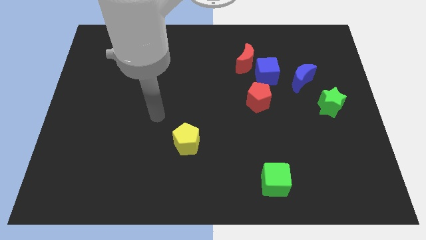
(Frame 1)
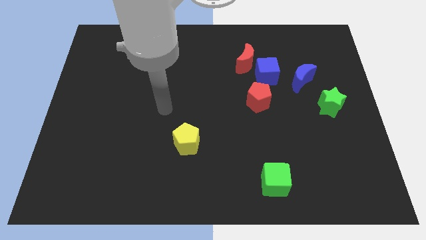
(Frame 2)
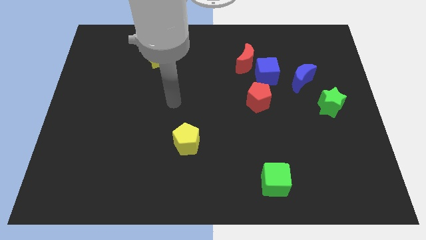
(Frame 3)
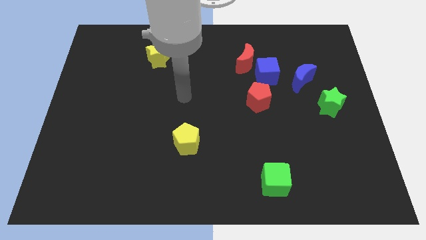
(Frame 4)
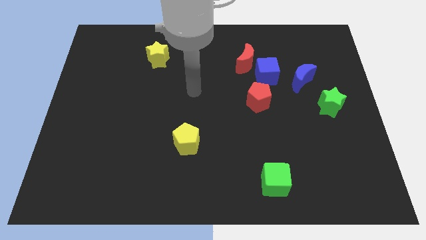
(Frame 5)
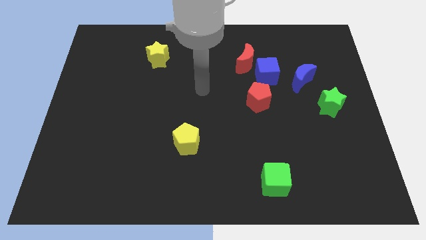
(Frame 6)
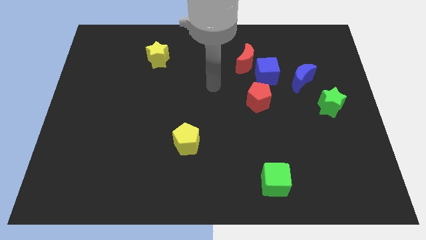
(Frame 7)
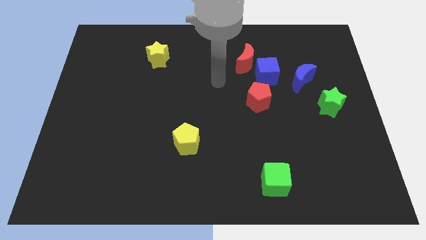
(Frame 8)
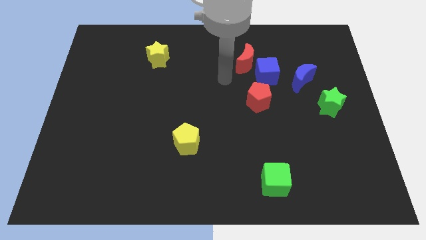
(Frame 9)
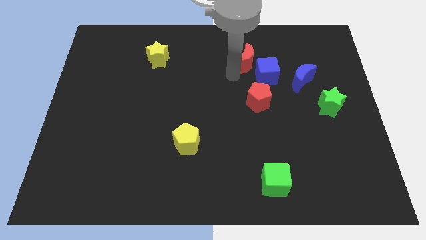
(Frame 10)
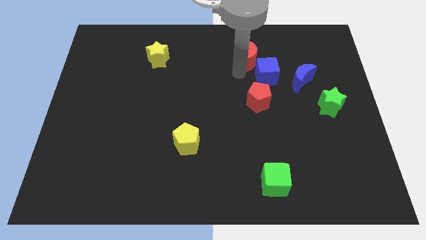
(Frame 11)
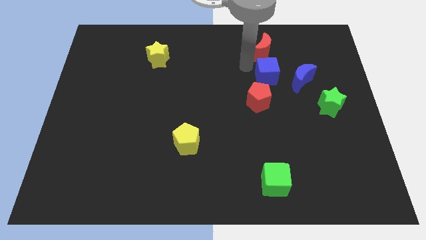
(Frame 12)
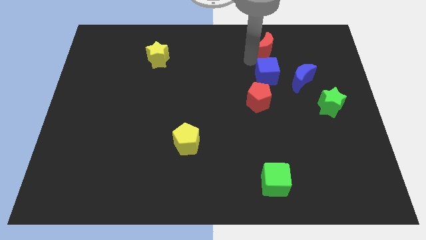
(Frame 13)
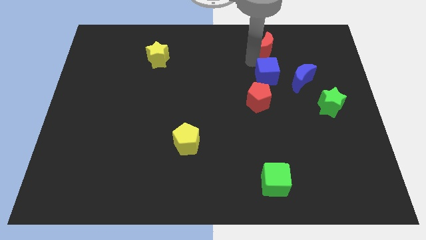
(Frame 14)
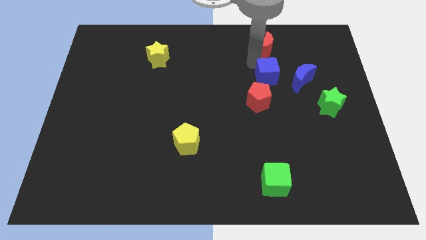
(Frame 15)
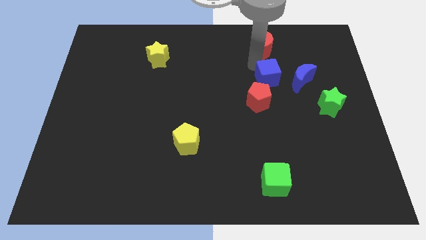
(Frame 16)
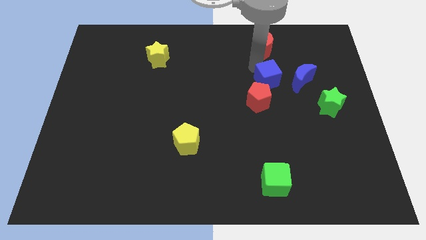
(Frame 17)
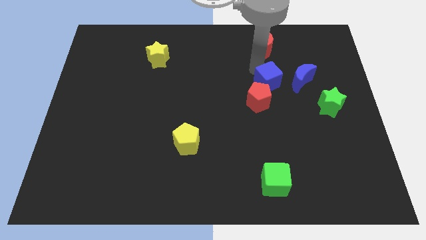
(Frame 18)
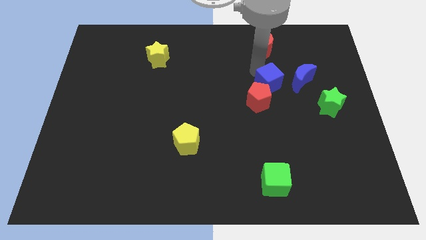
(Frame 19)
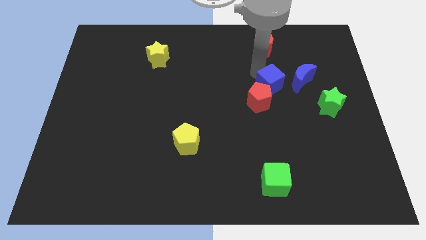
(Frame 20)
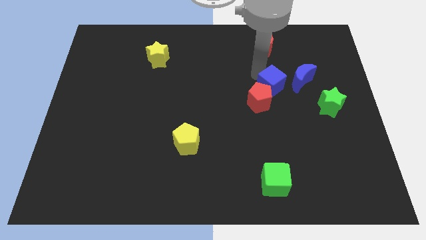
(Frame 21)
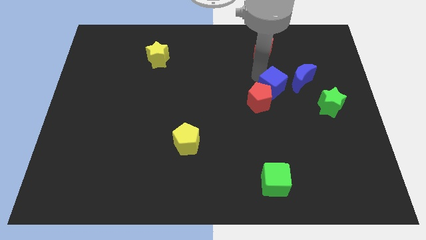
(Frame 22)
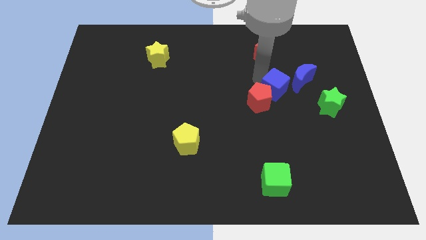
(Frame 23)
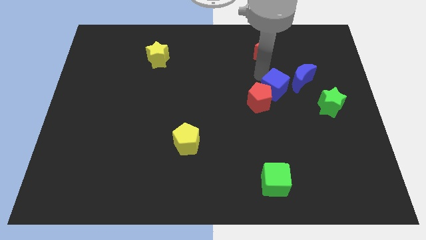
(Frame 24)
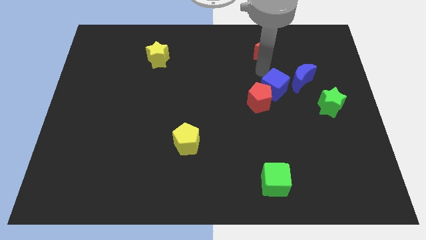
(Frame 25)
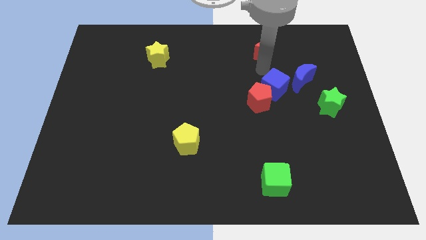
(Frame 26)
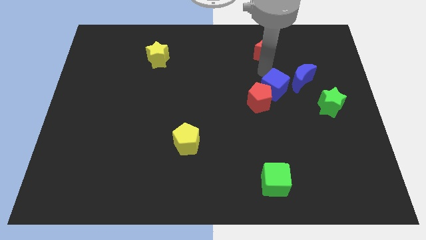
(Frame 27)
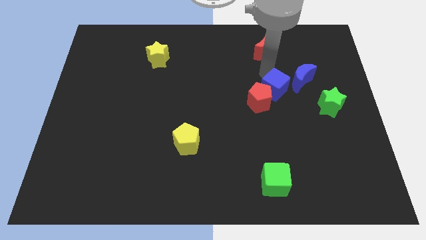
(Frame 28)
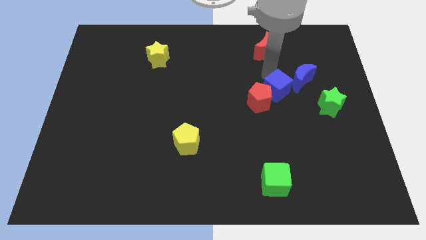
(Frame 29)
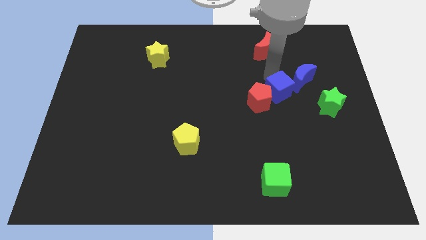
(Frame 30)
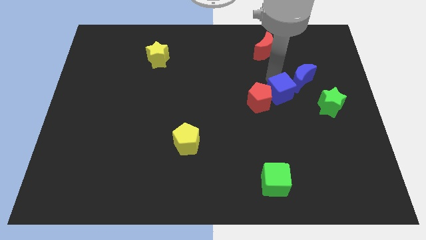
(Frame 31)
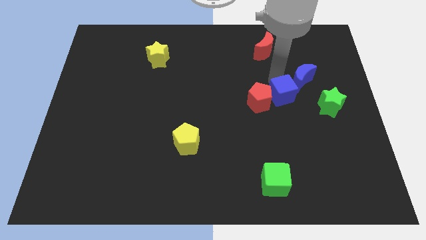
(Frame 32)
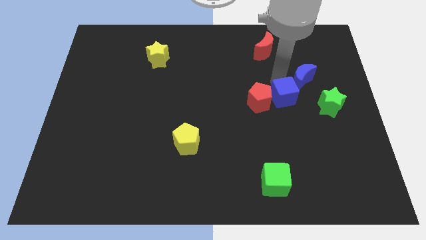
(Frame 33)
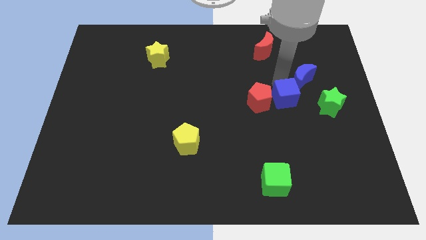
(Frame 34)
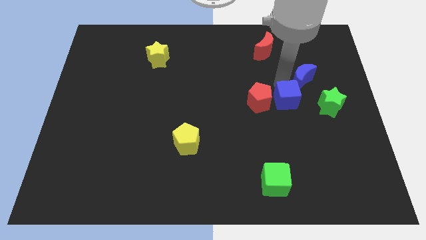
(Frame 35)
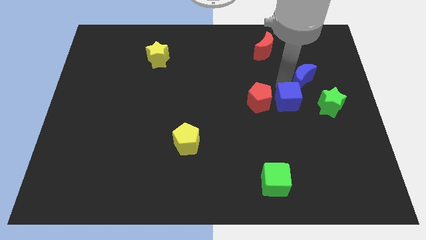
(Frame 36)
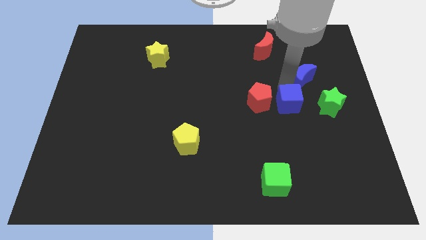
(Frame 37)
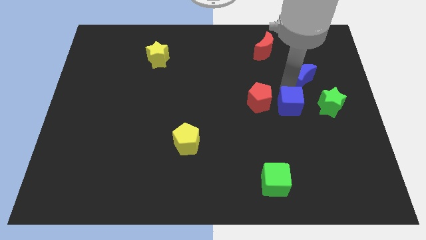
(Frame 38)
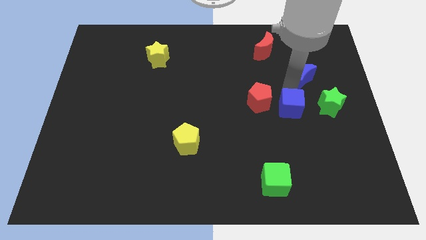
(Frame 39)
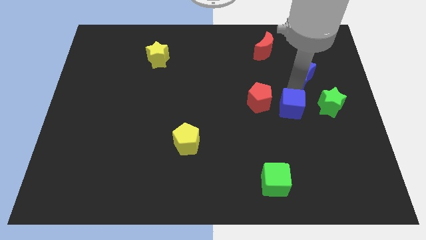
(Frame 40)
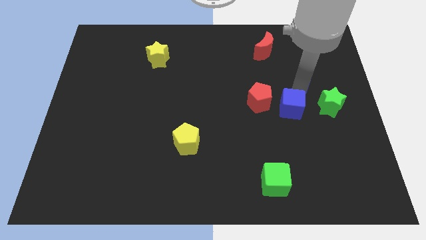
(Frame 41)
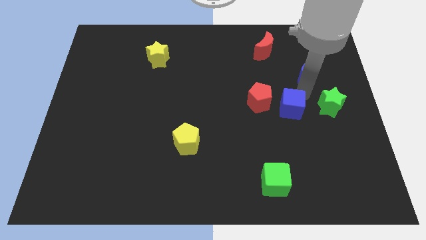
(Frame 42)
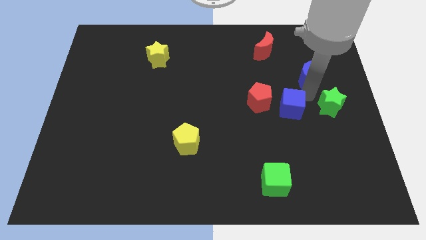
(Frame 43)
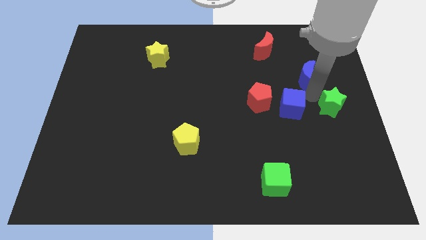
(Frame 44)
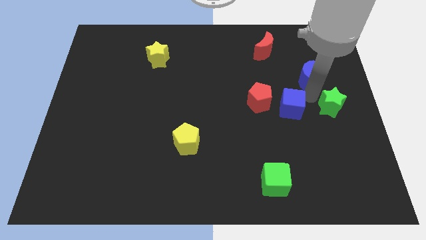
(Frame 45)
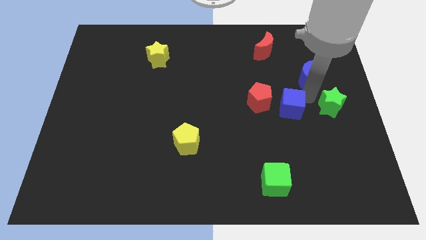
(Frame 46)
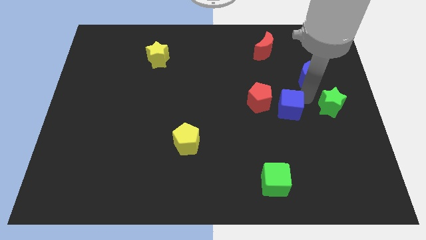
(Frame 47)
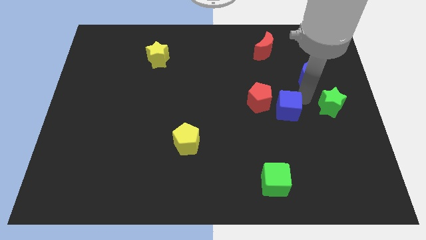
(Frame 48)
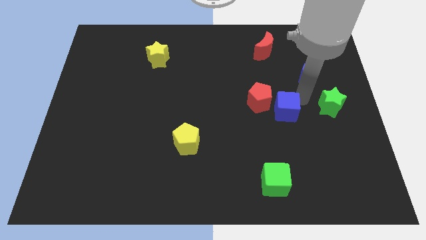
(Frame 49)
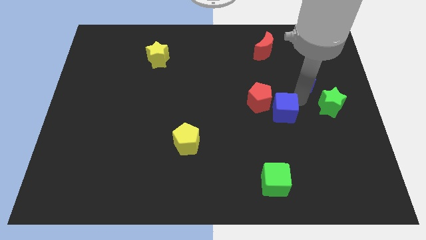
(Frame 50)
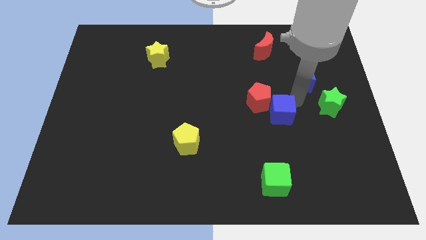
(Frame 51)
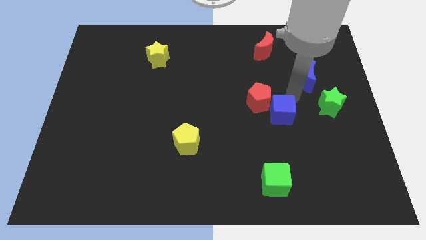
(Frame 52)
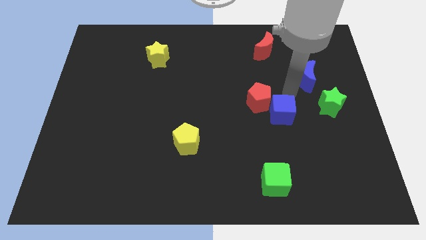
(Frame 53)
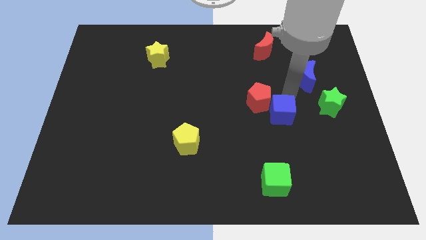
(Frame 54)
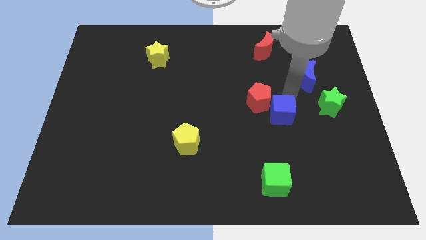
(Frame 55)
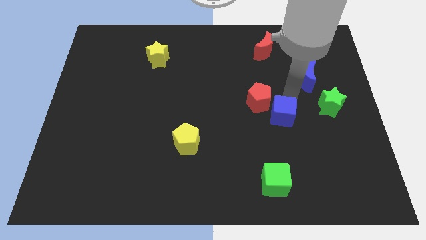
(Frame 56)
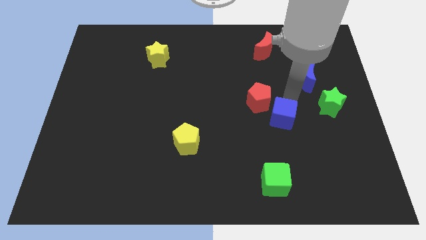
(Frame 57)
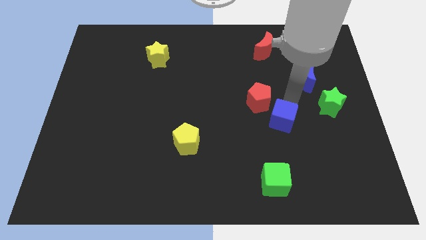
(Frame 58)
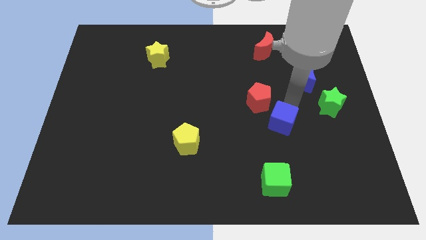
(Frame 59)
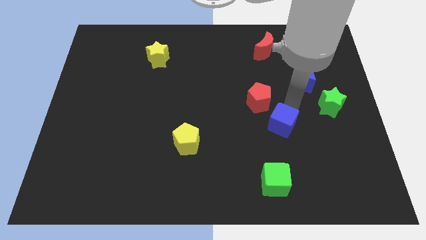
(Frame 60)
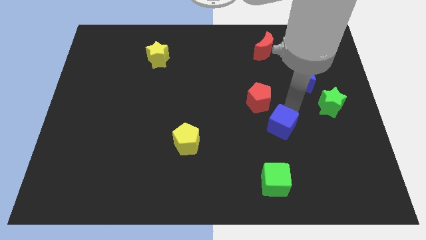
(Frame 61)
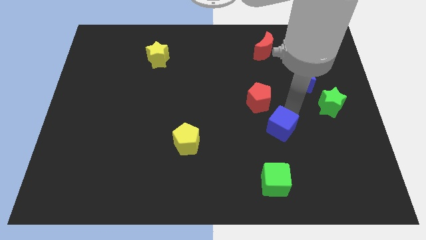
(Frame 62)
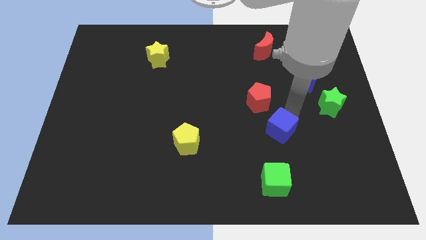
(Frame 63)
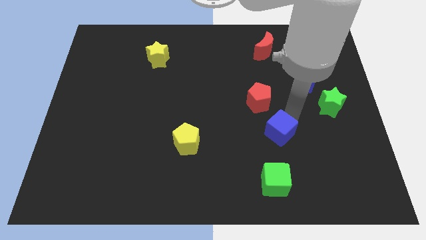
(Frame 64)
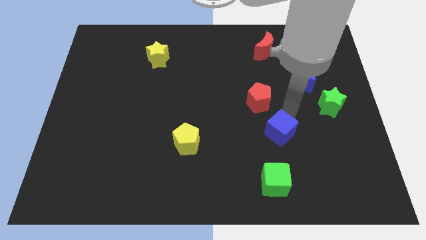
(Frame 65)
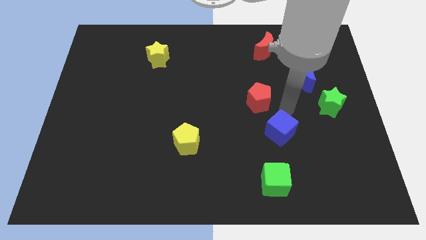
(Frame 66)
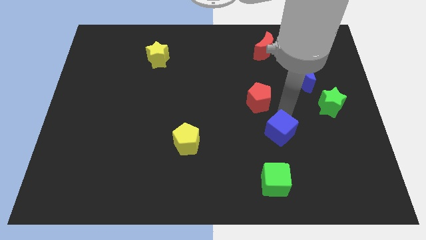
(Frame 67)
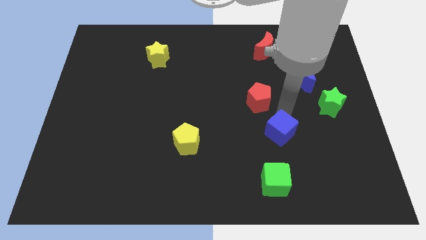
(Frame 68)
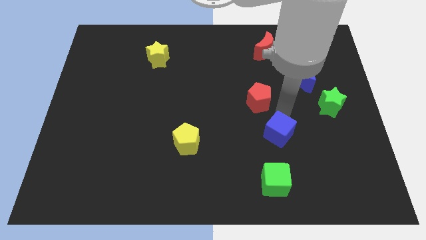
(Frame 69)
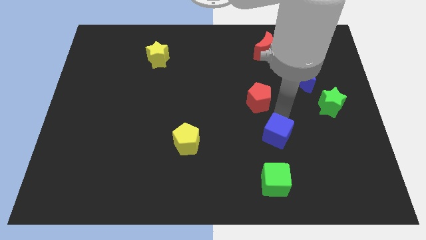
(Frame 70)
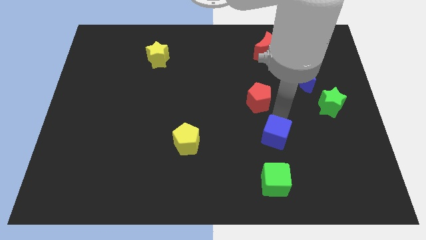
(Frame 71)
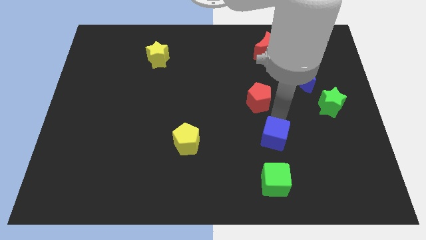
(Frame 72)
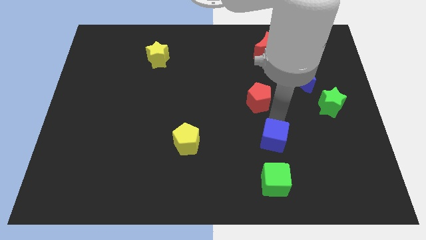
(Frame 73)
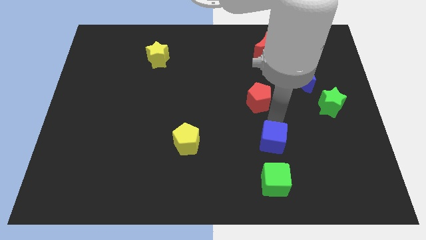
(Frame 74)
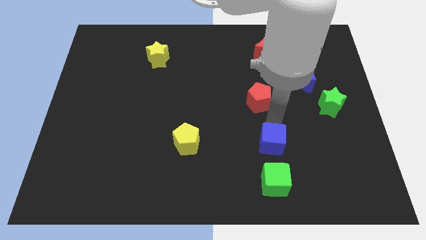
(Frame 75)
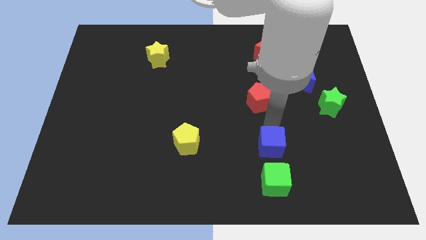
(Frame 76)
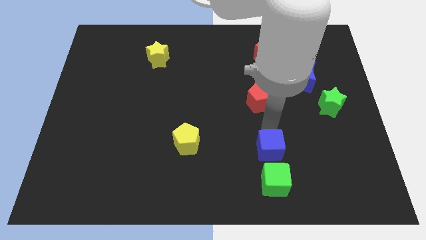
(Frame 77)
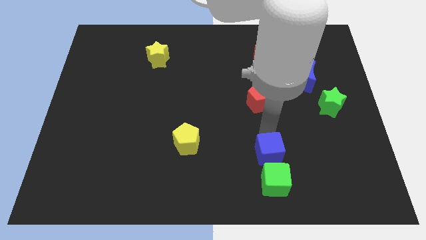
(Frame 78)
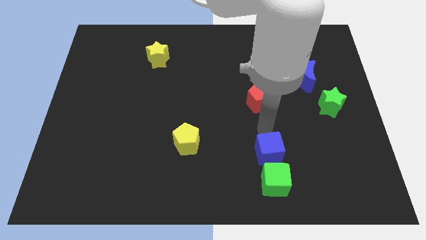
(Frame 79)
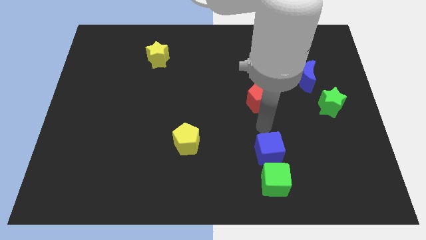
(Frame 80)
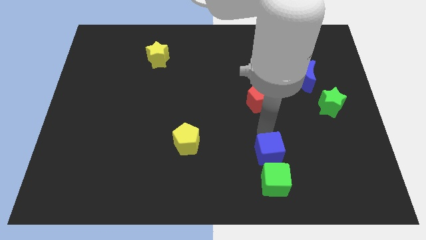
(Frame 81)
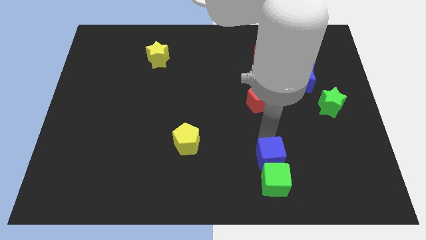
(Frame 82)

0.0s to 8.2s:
move the blue cube next to the green cube
